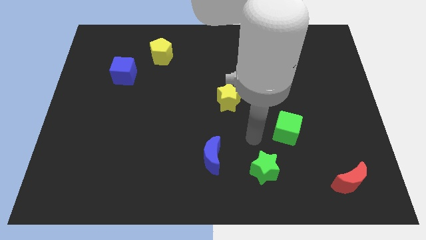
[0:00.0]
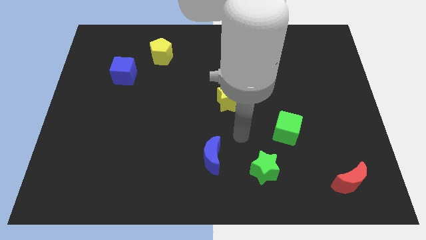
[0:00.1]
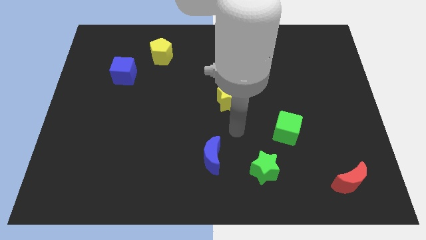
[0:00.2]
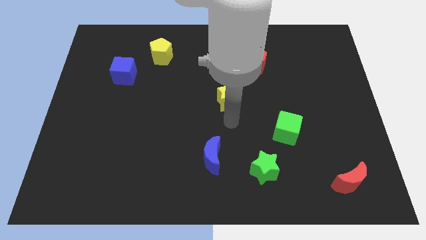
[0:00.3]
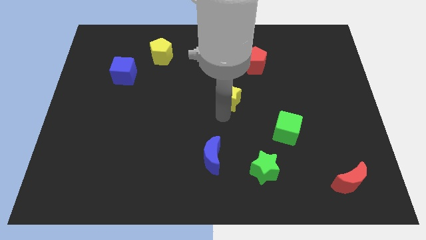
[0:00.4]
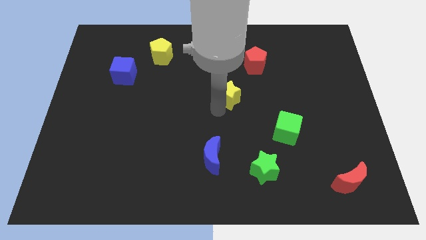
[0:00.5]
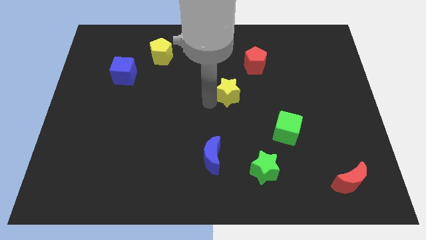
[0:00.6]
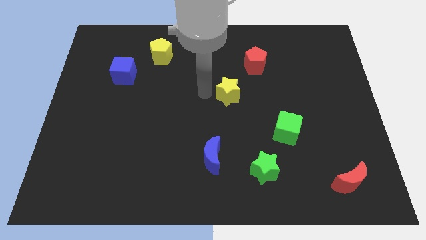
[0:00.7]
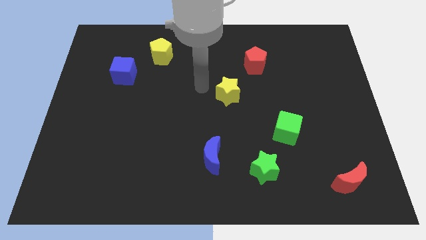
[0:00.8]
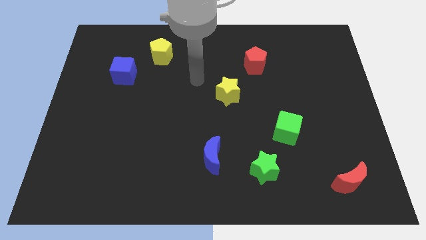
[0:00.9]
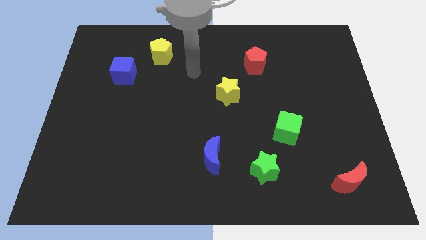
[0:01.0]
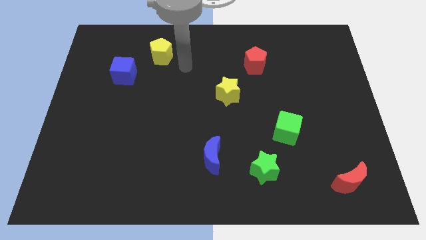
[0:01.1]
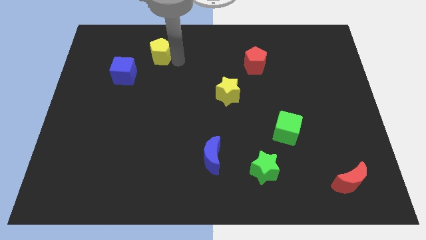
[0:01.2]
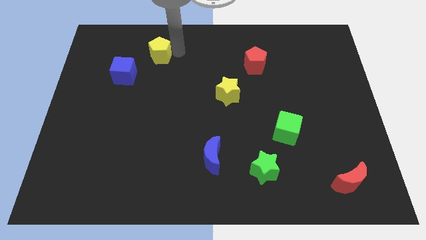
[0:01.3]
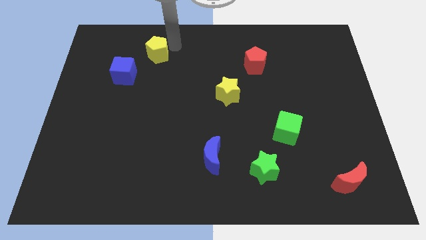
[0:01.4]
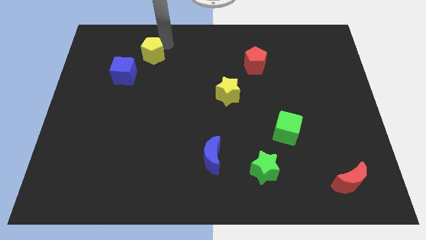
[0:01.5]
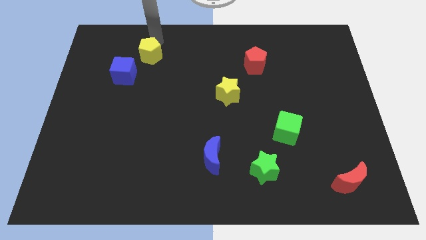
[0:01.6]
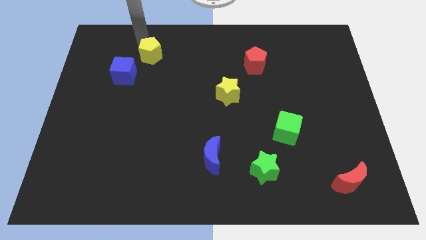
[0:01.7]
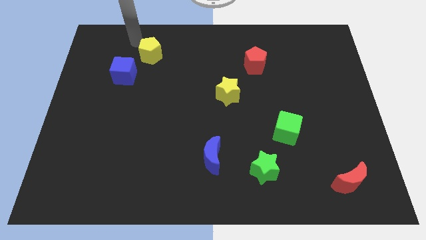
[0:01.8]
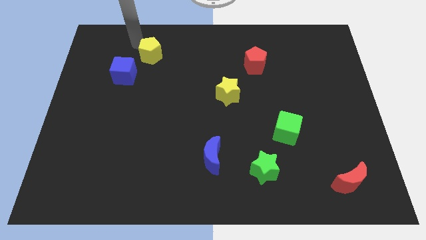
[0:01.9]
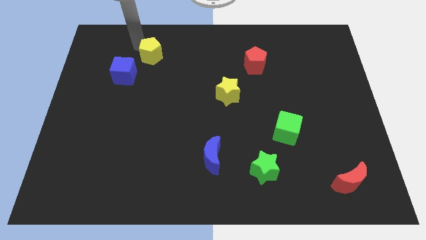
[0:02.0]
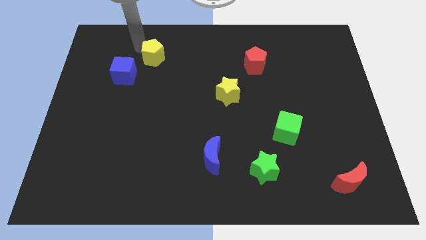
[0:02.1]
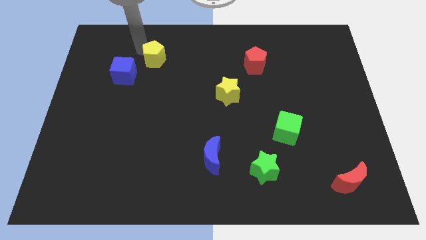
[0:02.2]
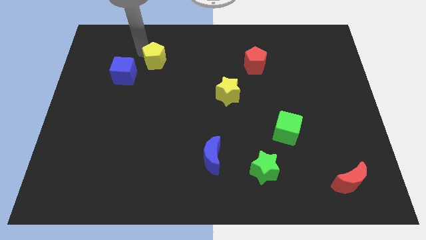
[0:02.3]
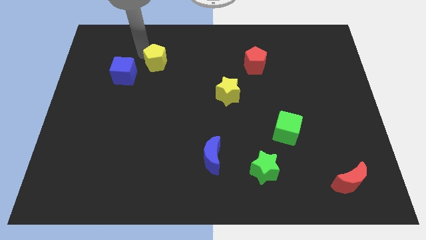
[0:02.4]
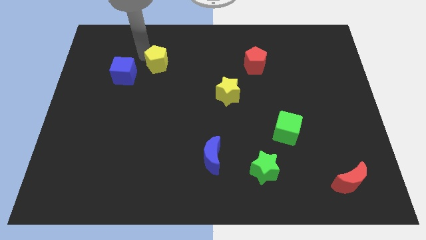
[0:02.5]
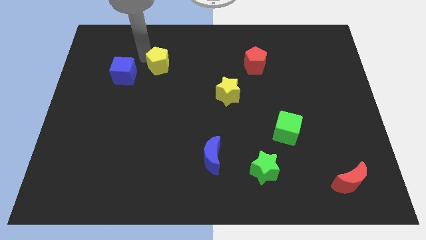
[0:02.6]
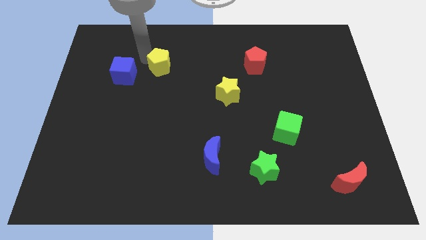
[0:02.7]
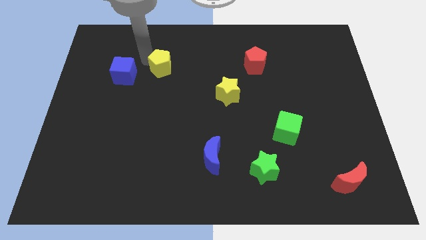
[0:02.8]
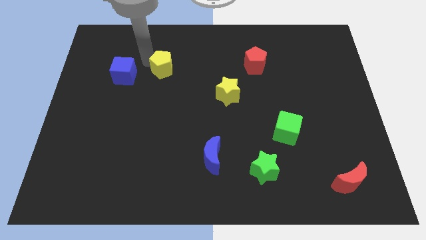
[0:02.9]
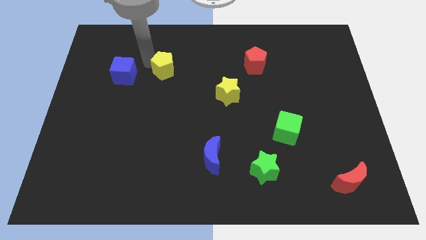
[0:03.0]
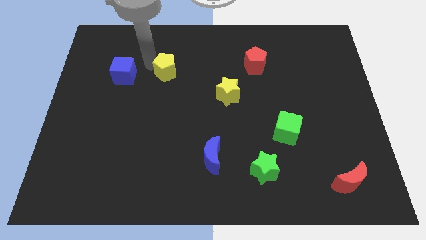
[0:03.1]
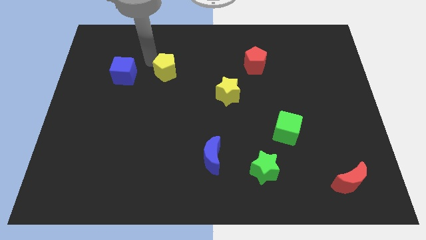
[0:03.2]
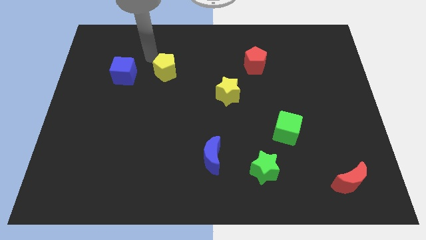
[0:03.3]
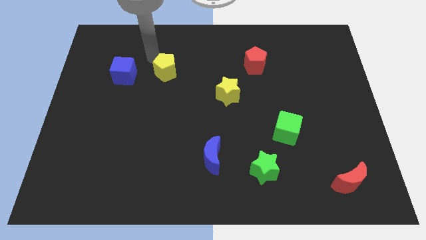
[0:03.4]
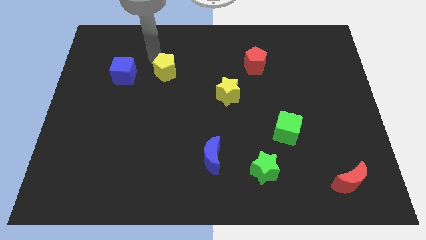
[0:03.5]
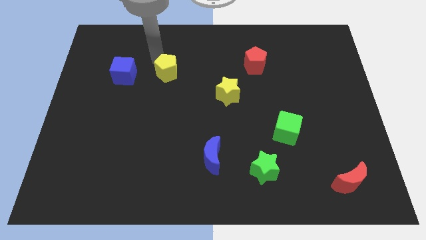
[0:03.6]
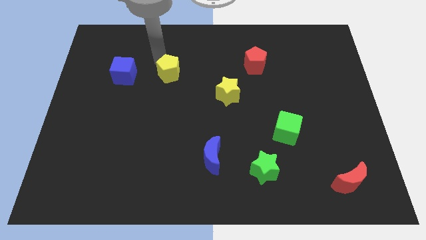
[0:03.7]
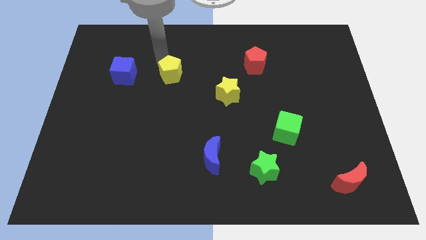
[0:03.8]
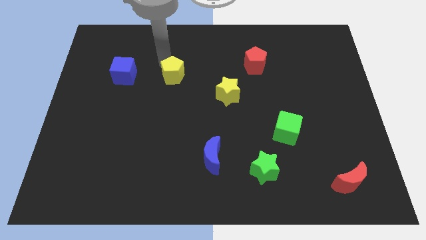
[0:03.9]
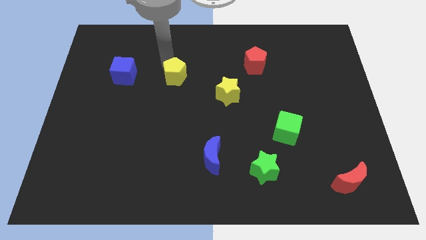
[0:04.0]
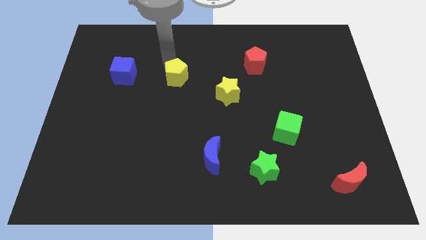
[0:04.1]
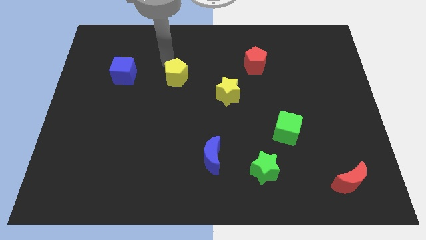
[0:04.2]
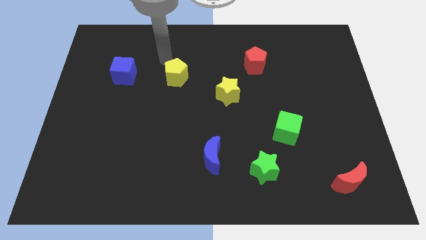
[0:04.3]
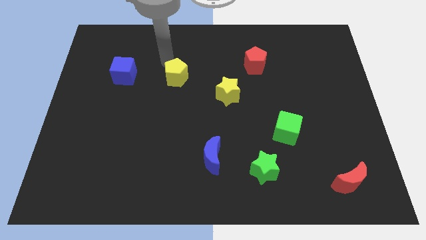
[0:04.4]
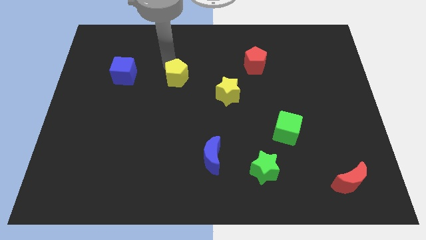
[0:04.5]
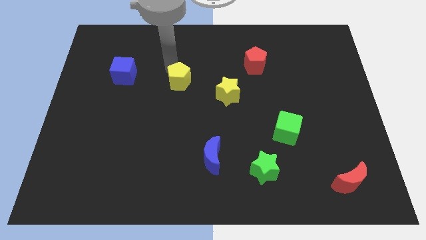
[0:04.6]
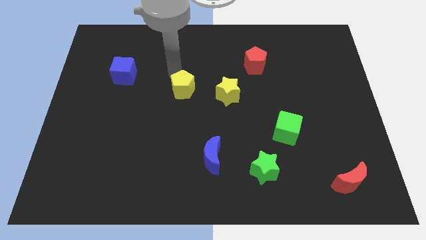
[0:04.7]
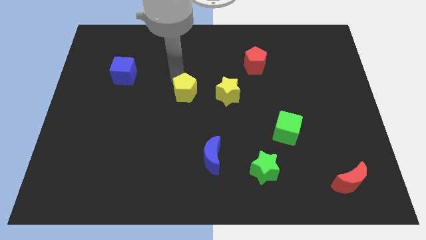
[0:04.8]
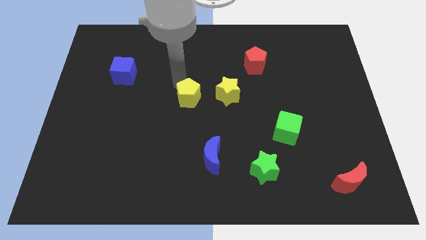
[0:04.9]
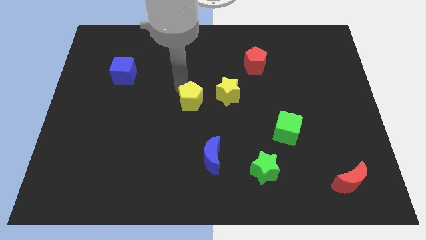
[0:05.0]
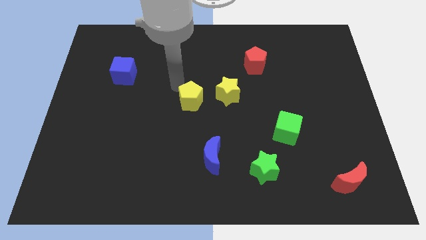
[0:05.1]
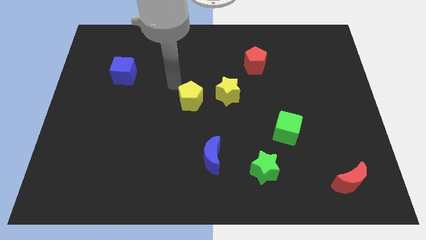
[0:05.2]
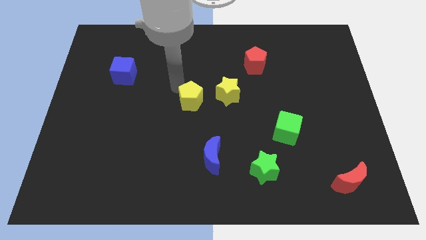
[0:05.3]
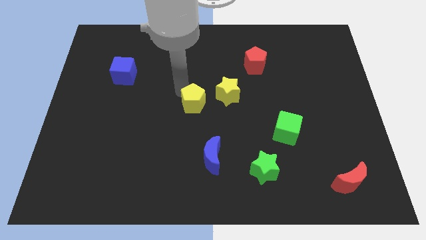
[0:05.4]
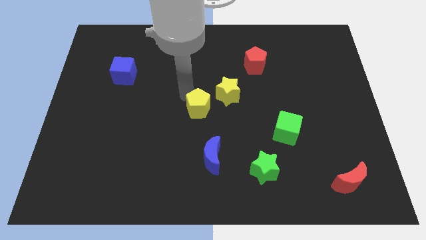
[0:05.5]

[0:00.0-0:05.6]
move the yellow pentagon above the blue moon

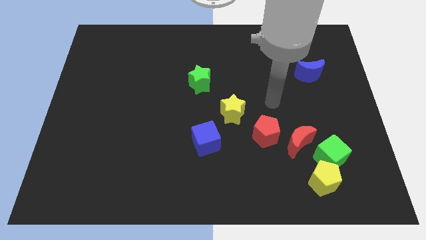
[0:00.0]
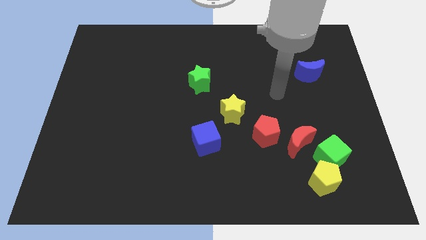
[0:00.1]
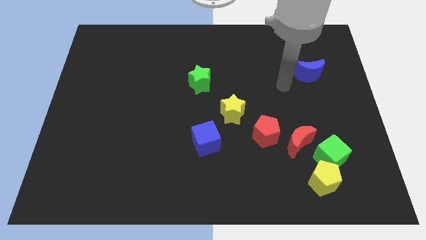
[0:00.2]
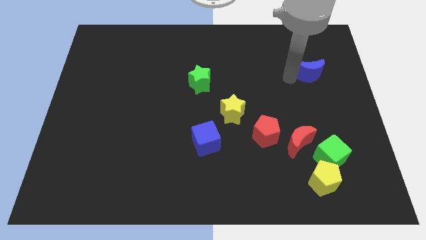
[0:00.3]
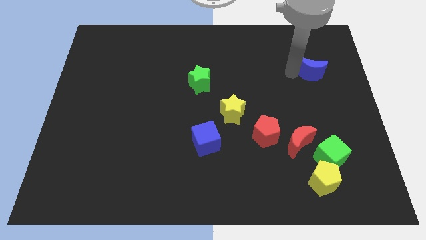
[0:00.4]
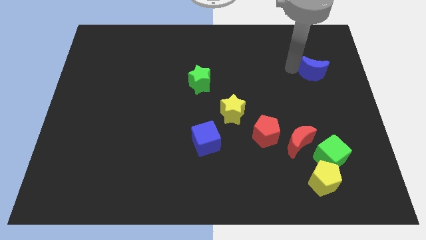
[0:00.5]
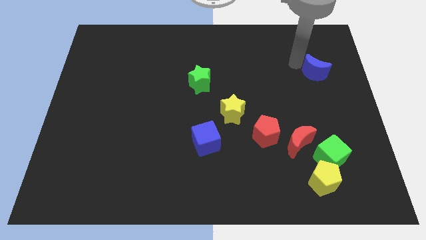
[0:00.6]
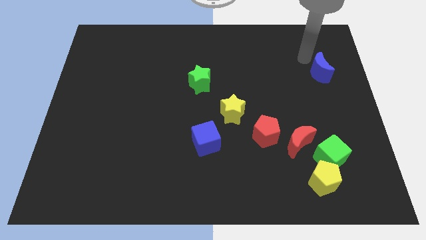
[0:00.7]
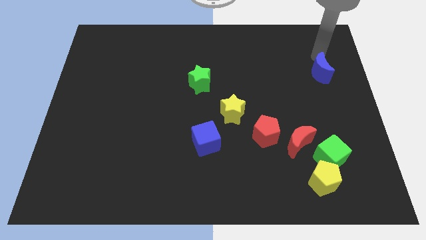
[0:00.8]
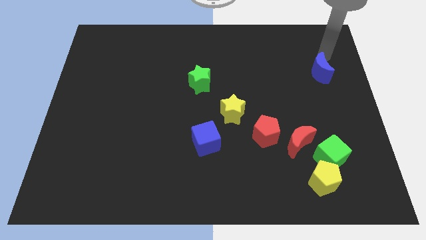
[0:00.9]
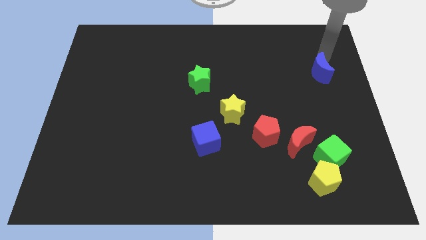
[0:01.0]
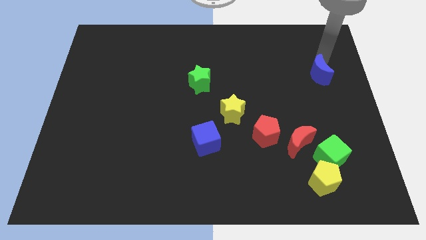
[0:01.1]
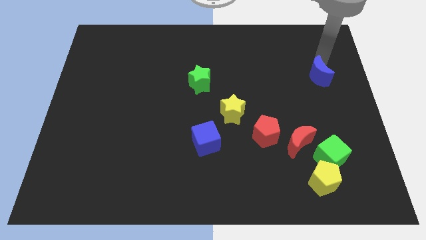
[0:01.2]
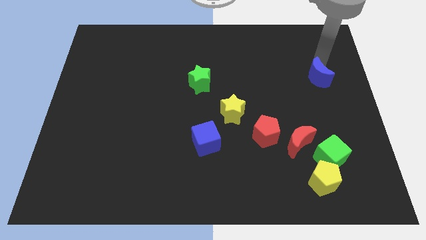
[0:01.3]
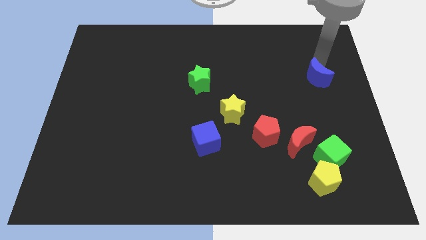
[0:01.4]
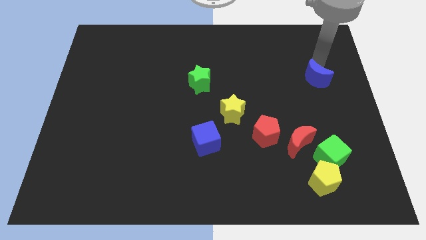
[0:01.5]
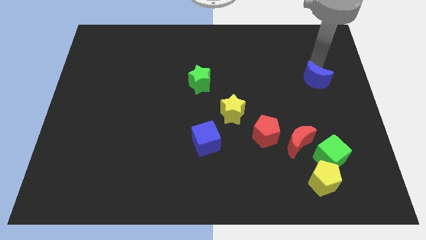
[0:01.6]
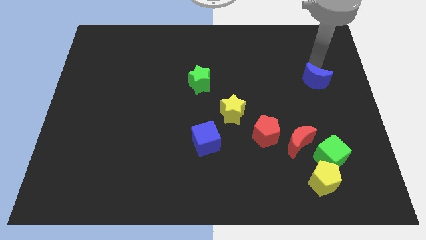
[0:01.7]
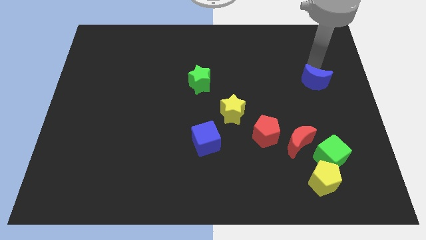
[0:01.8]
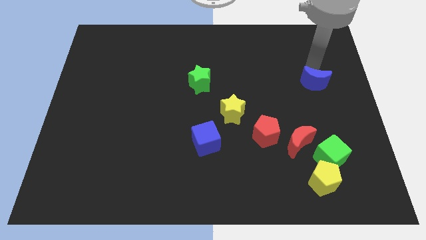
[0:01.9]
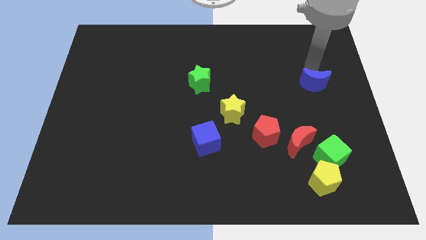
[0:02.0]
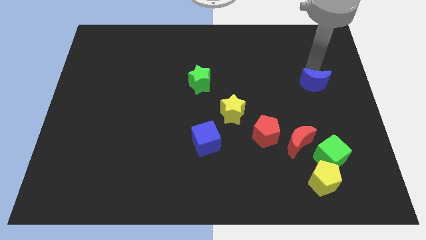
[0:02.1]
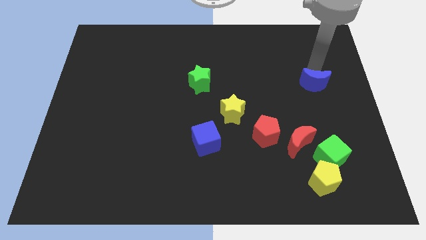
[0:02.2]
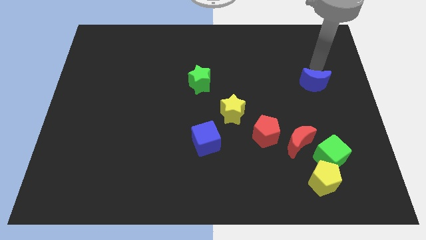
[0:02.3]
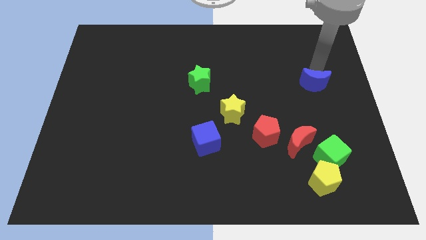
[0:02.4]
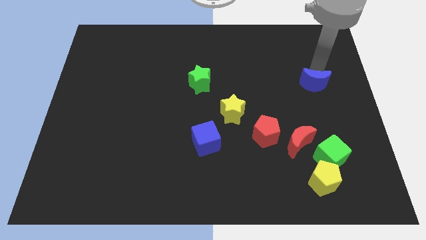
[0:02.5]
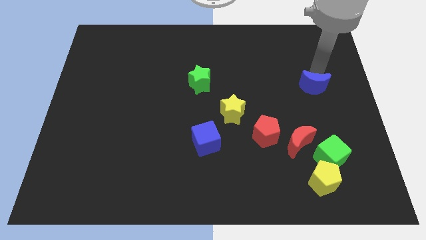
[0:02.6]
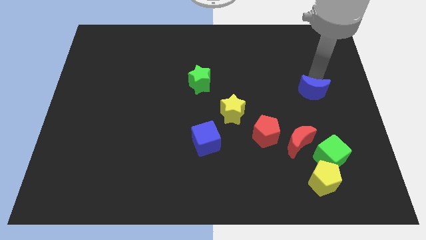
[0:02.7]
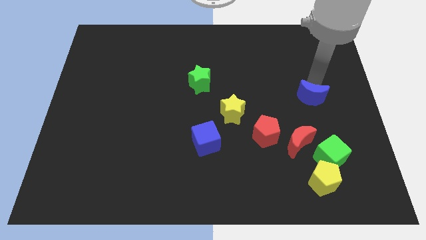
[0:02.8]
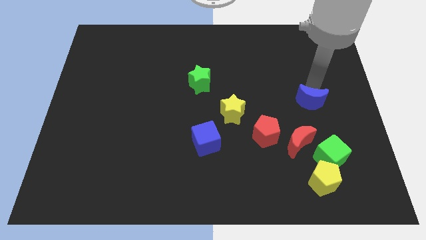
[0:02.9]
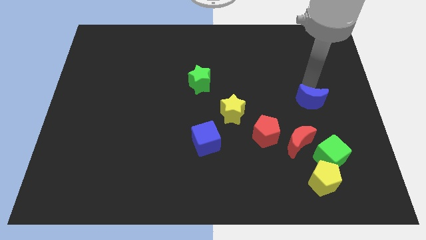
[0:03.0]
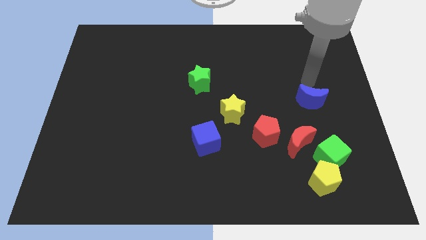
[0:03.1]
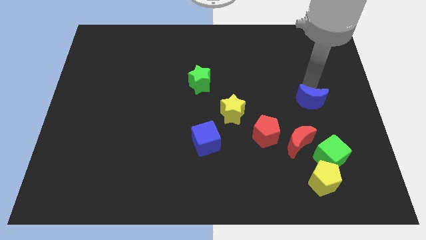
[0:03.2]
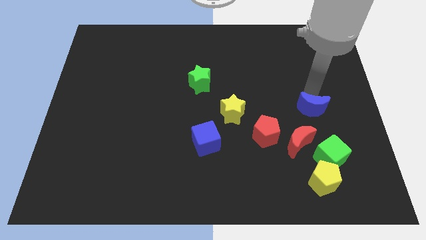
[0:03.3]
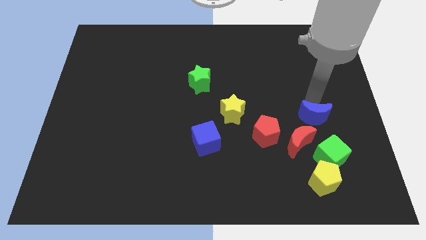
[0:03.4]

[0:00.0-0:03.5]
move the blue moon to the top side of the yellow pentagon
